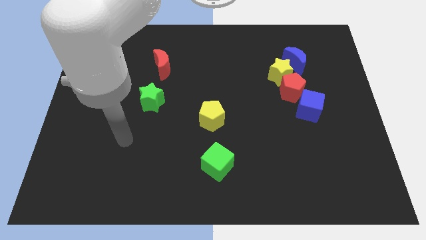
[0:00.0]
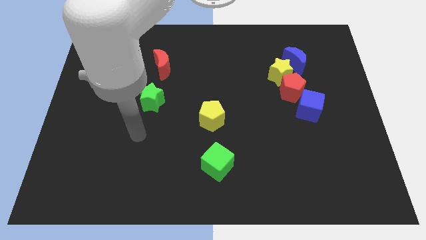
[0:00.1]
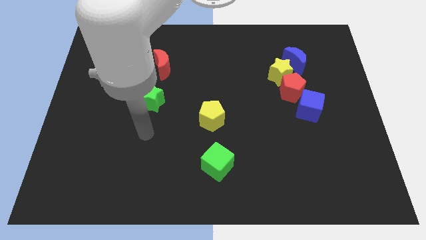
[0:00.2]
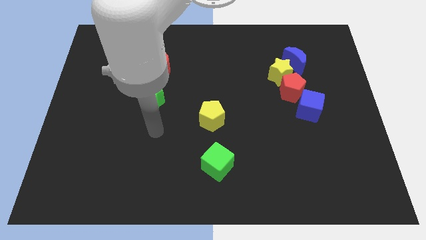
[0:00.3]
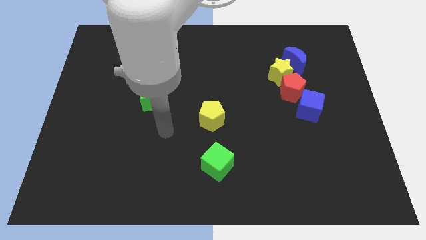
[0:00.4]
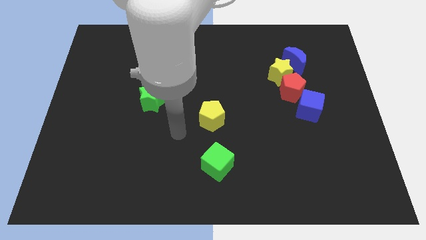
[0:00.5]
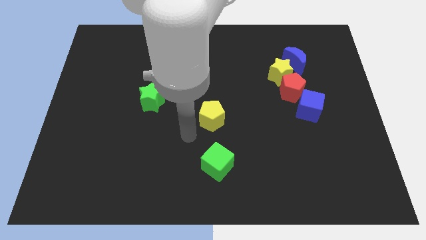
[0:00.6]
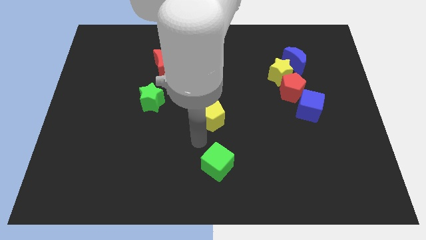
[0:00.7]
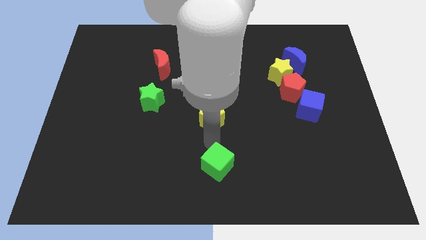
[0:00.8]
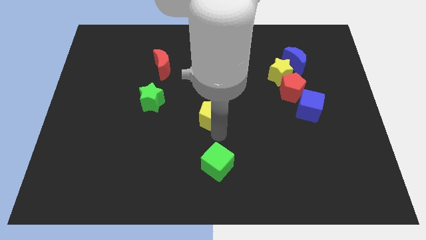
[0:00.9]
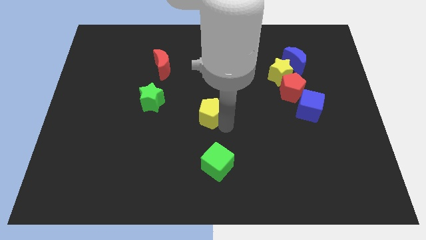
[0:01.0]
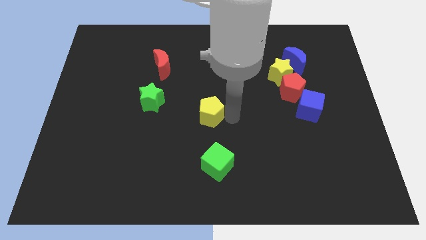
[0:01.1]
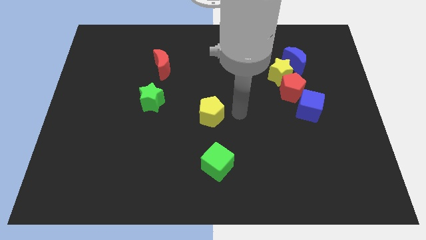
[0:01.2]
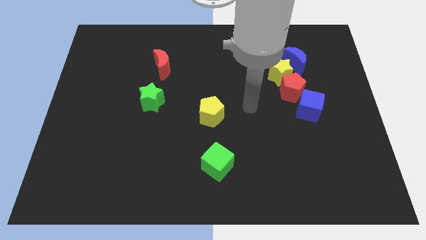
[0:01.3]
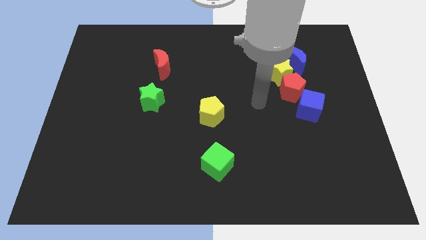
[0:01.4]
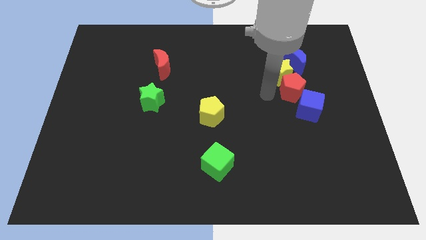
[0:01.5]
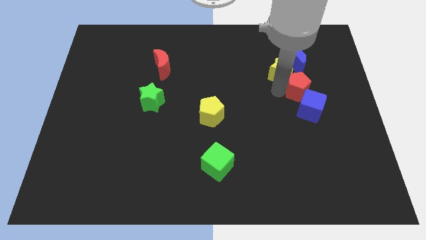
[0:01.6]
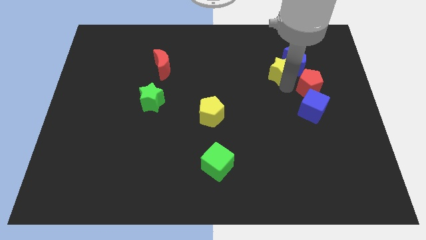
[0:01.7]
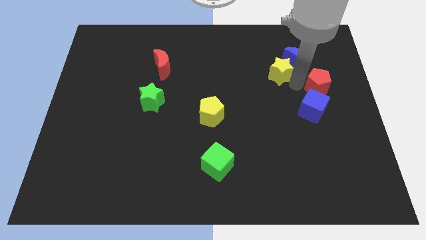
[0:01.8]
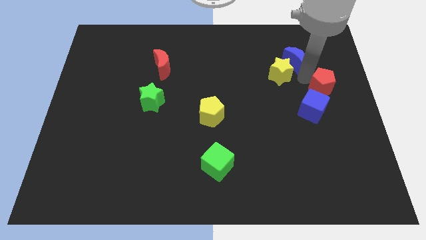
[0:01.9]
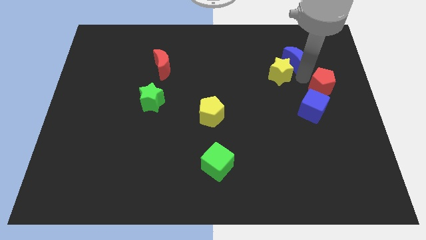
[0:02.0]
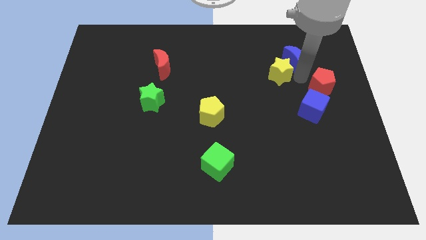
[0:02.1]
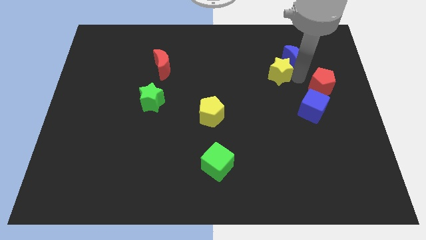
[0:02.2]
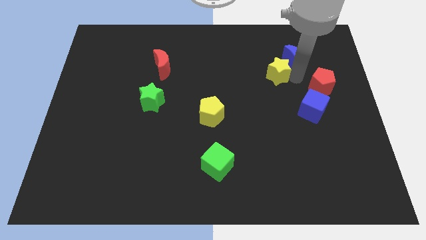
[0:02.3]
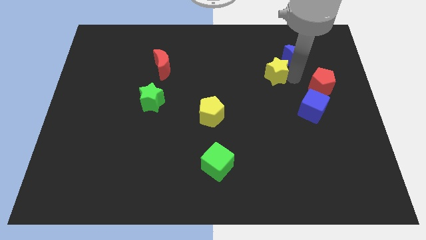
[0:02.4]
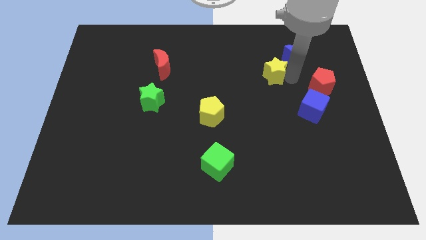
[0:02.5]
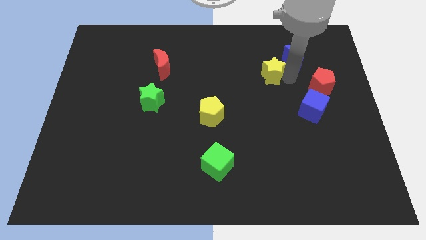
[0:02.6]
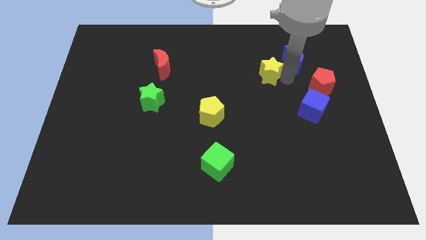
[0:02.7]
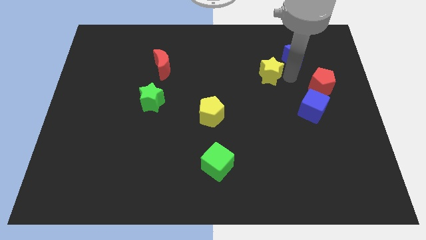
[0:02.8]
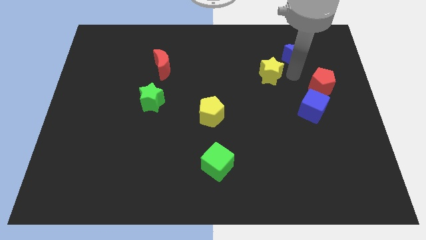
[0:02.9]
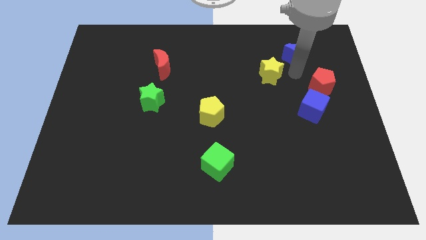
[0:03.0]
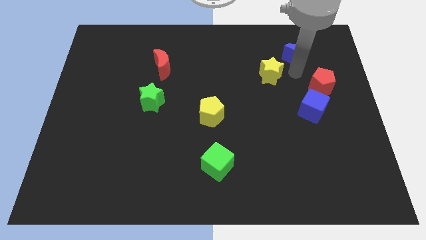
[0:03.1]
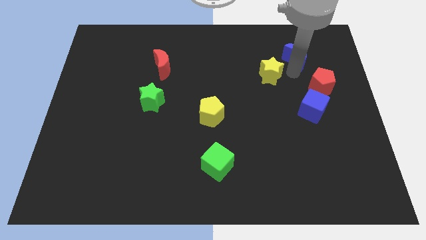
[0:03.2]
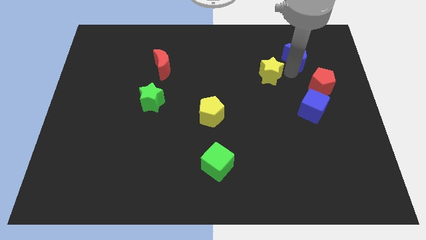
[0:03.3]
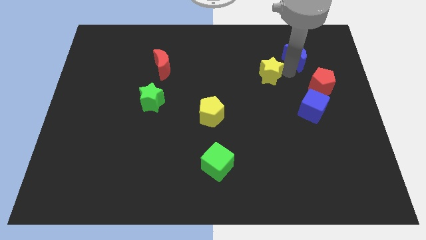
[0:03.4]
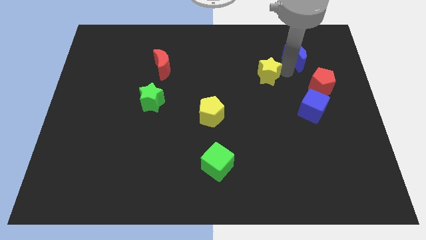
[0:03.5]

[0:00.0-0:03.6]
move the yellow star away from the red pentagon and blue moon

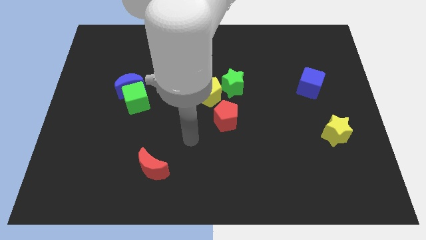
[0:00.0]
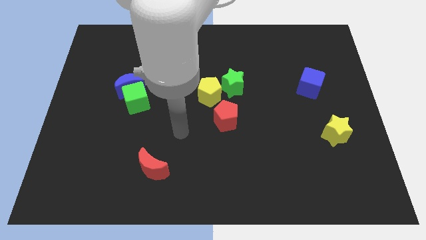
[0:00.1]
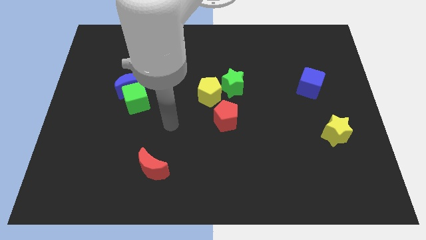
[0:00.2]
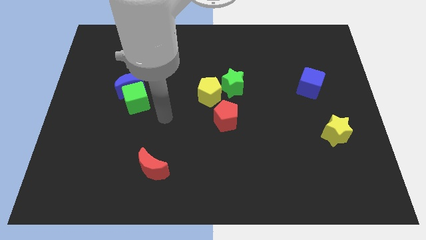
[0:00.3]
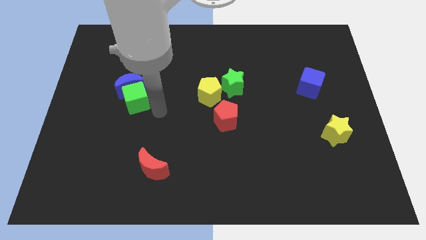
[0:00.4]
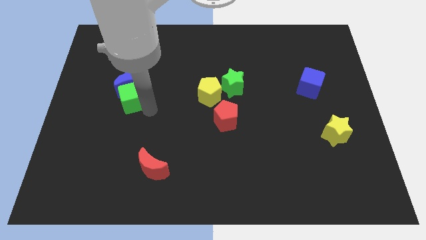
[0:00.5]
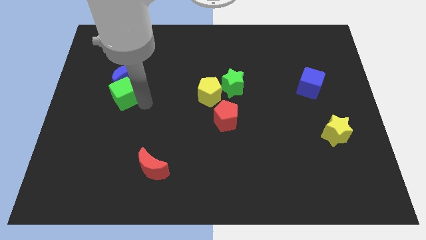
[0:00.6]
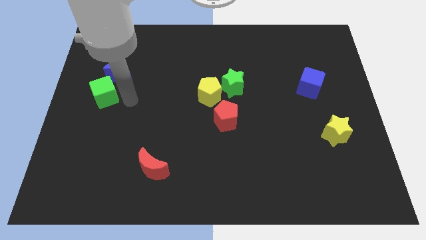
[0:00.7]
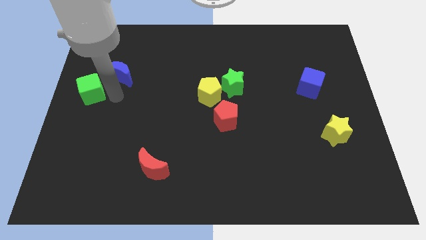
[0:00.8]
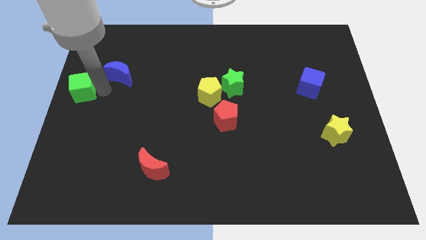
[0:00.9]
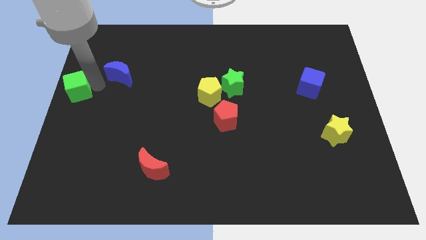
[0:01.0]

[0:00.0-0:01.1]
move the blue moon away from the green cube

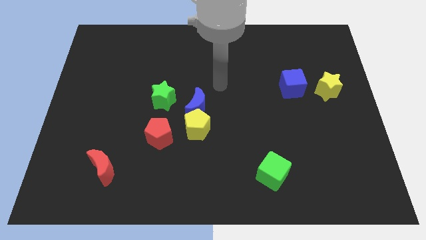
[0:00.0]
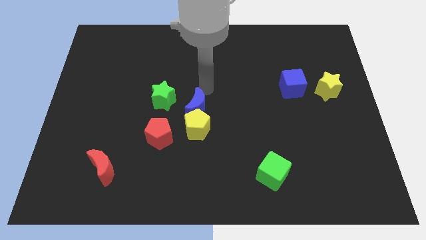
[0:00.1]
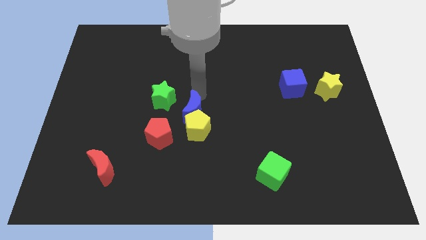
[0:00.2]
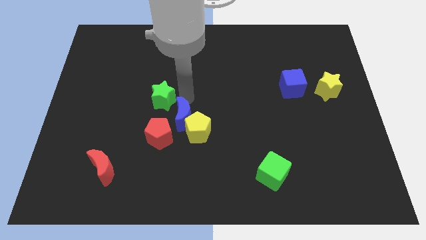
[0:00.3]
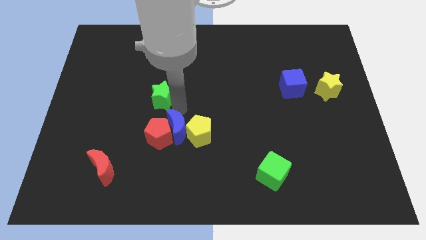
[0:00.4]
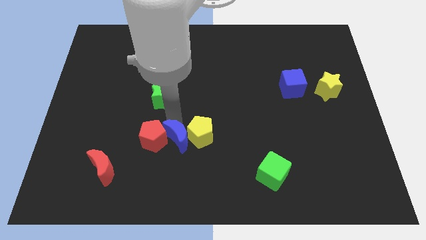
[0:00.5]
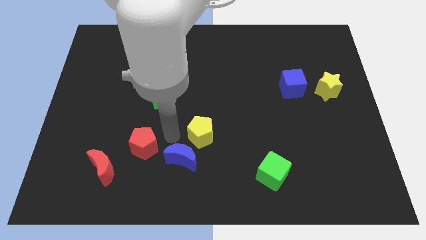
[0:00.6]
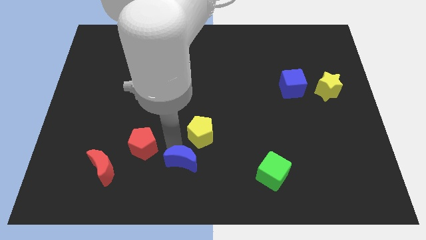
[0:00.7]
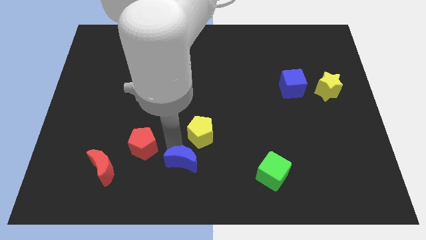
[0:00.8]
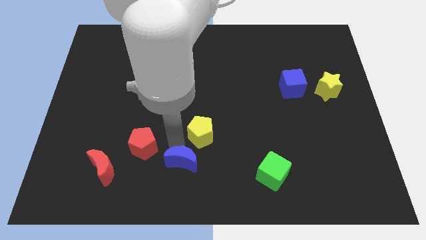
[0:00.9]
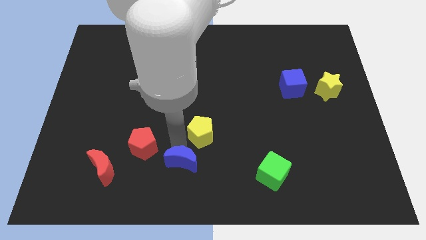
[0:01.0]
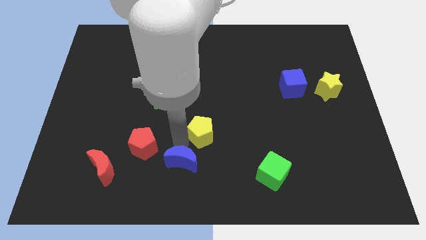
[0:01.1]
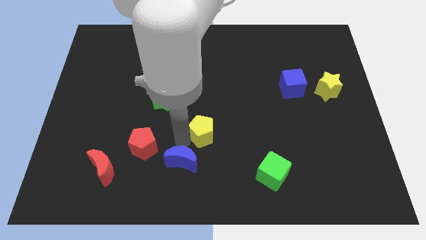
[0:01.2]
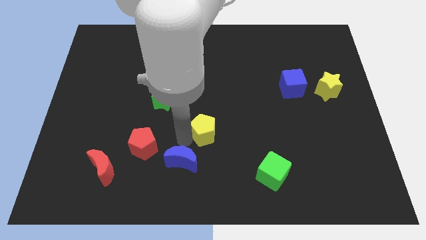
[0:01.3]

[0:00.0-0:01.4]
move the yellow pentagon away from the blue moon and red pentagon

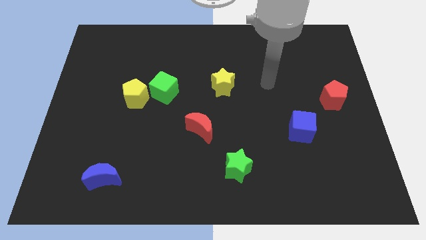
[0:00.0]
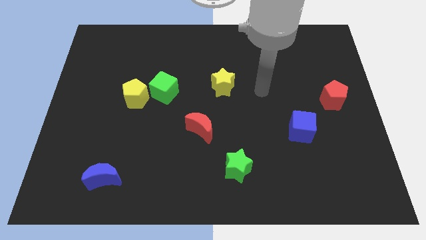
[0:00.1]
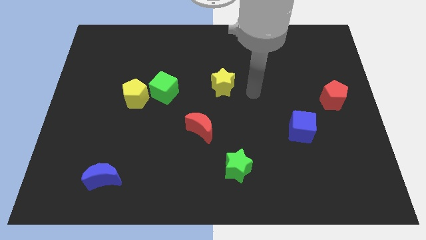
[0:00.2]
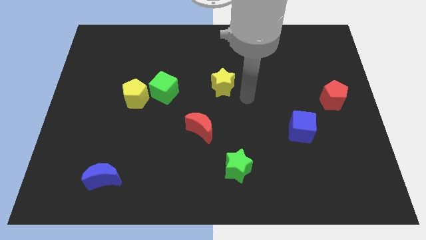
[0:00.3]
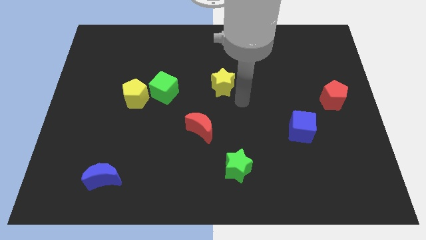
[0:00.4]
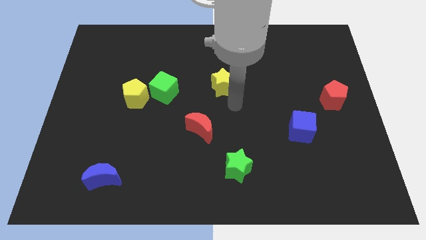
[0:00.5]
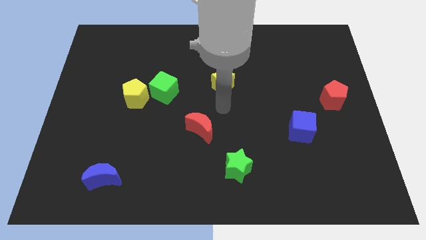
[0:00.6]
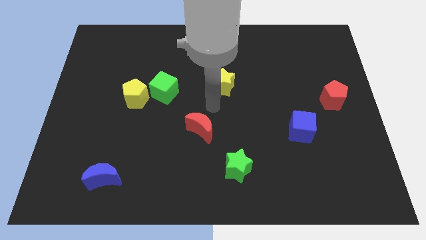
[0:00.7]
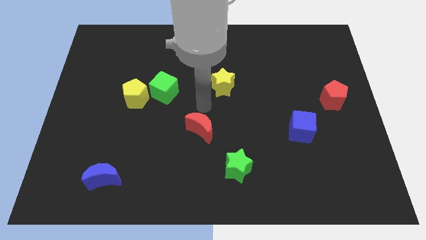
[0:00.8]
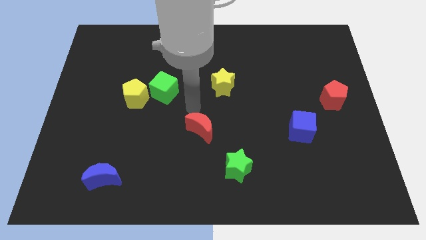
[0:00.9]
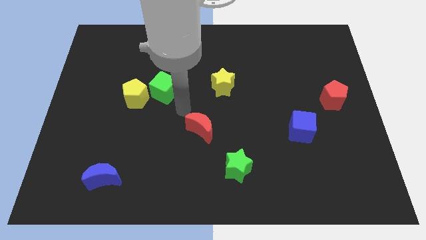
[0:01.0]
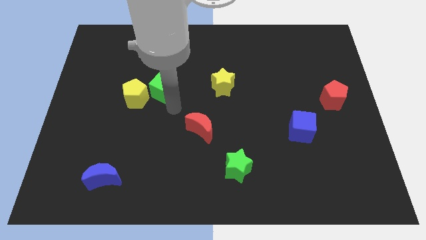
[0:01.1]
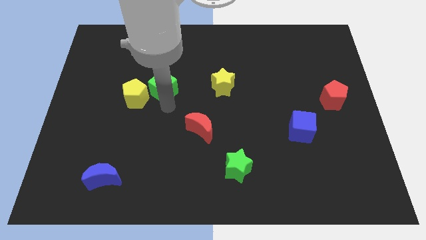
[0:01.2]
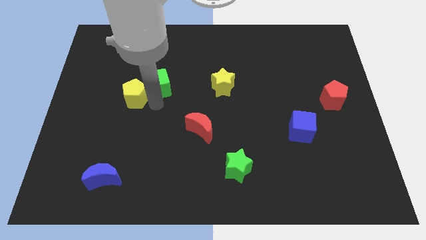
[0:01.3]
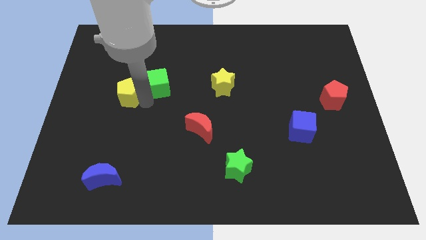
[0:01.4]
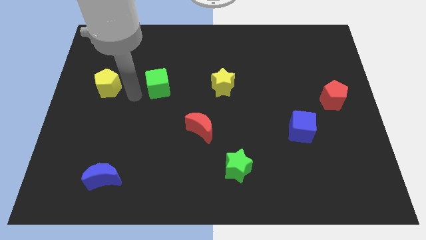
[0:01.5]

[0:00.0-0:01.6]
separate the green cube from the yellow pentagon

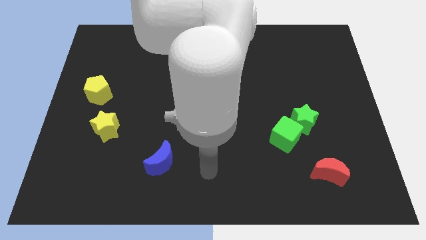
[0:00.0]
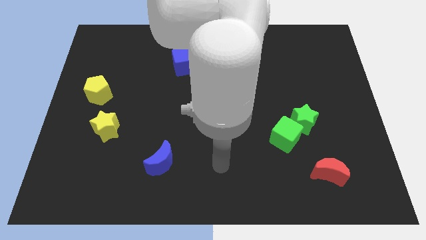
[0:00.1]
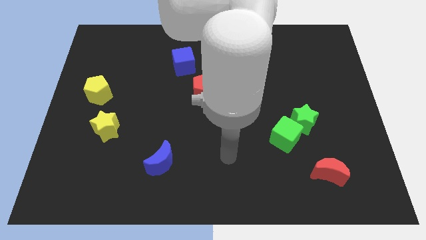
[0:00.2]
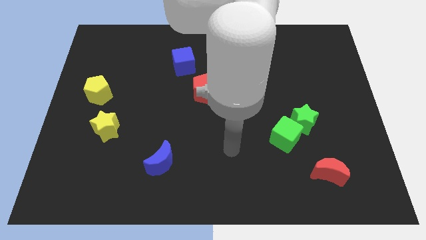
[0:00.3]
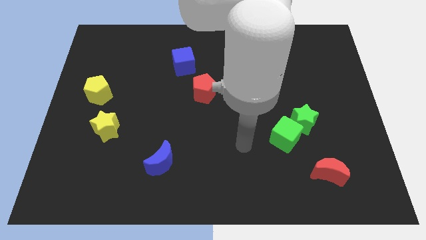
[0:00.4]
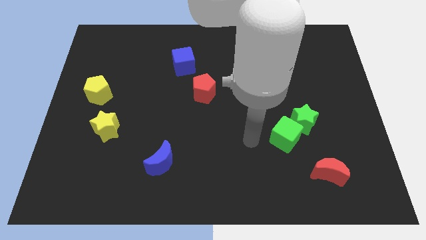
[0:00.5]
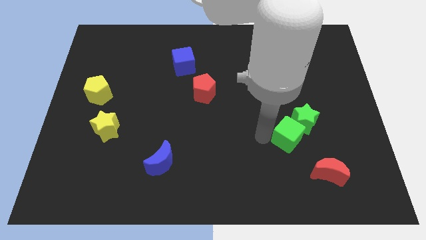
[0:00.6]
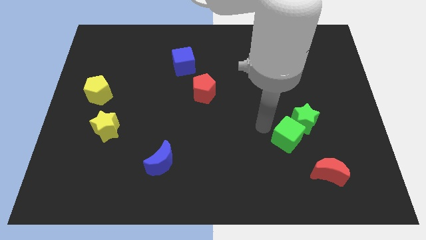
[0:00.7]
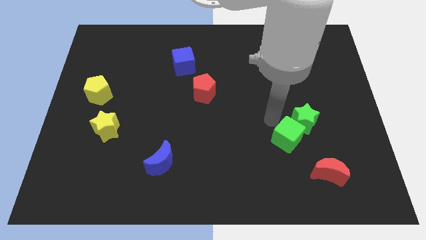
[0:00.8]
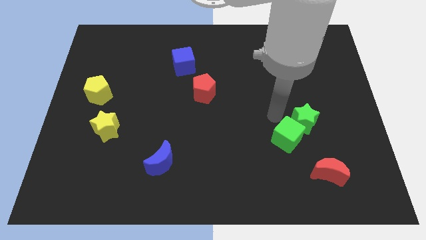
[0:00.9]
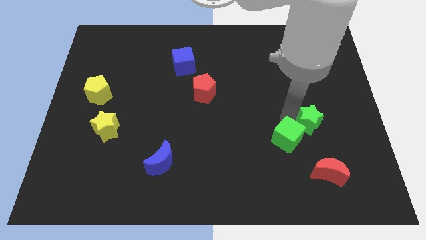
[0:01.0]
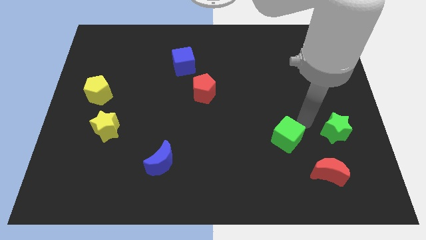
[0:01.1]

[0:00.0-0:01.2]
pull the green cube apart from the green star

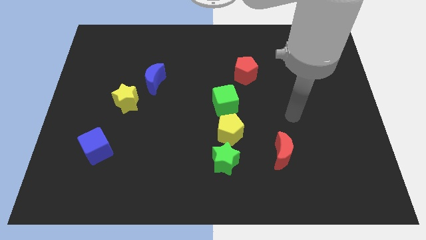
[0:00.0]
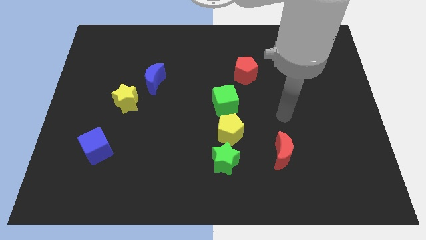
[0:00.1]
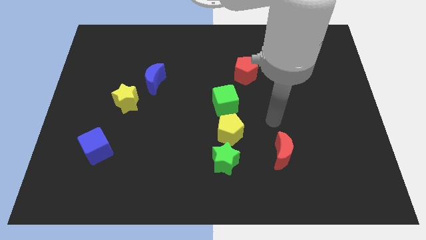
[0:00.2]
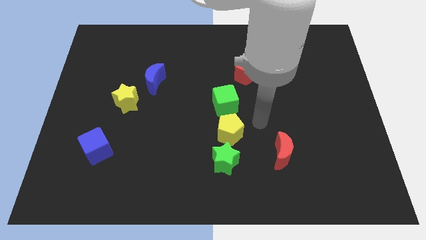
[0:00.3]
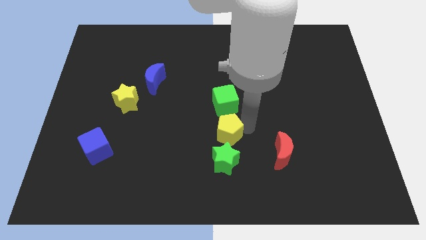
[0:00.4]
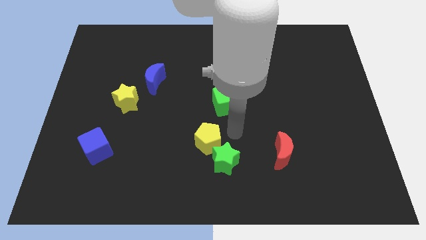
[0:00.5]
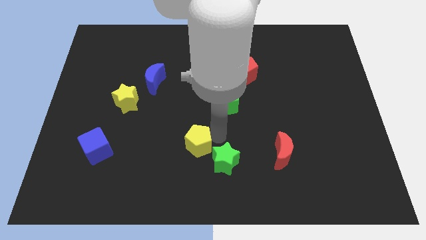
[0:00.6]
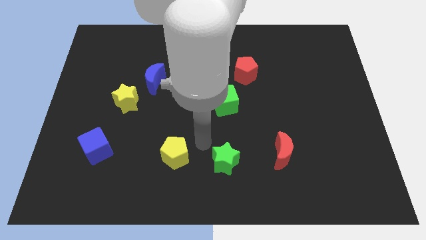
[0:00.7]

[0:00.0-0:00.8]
move the green star away from the yellow pentagon
